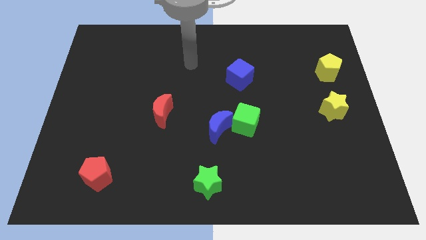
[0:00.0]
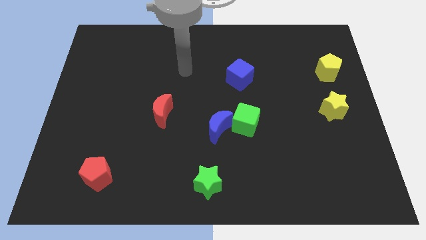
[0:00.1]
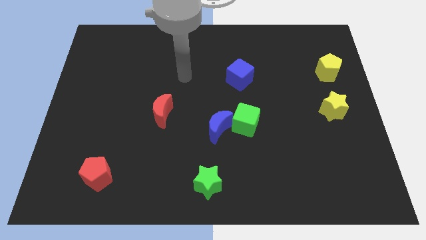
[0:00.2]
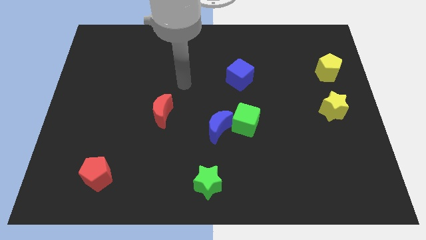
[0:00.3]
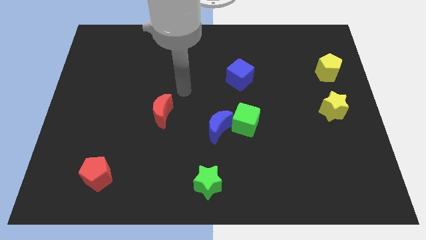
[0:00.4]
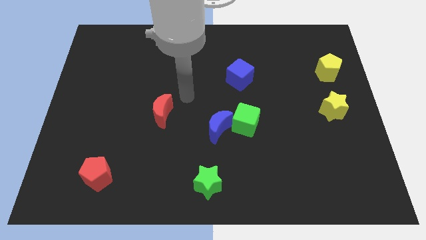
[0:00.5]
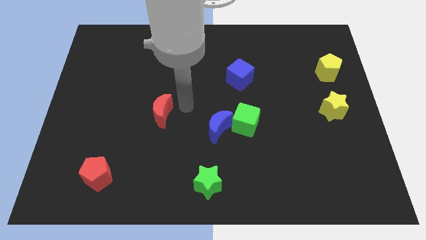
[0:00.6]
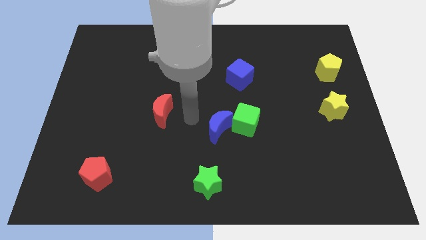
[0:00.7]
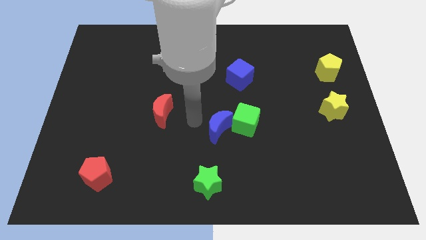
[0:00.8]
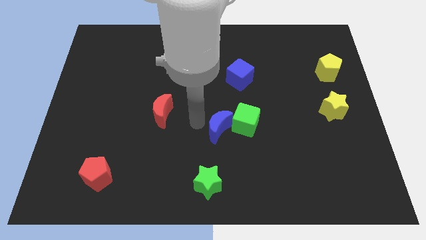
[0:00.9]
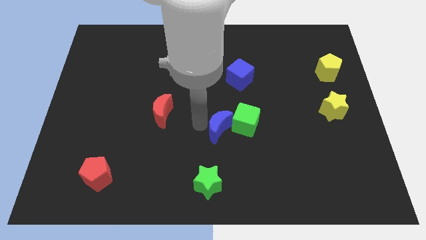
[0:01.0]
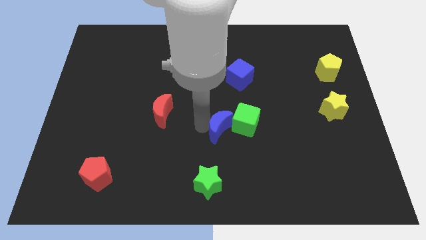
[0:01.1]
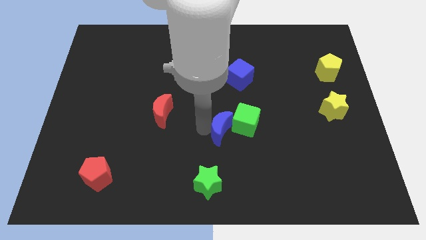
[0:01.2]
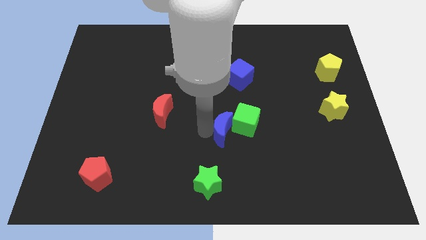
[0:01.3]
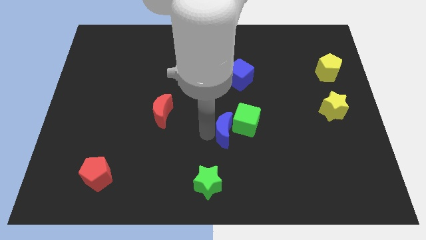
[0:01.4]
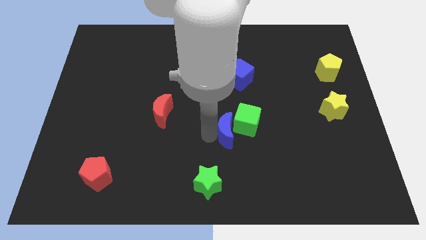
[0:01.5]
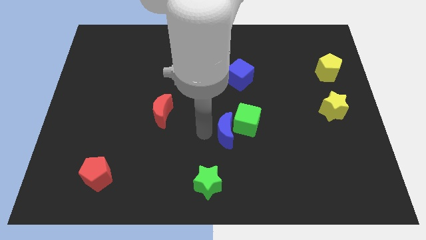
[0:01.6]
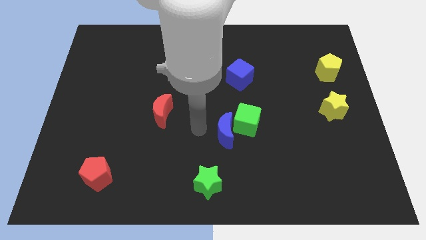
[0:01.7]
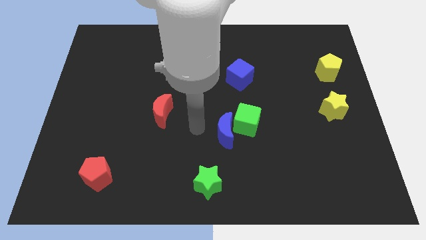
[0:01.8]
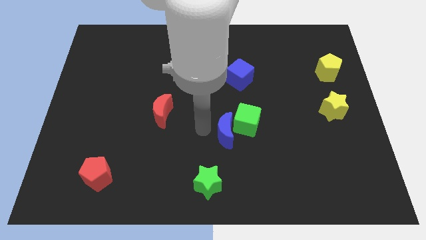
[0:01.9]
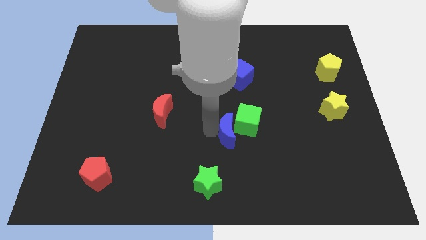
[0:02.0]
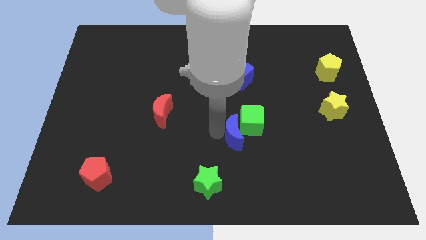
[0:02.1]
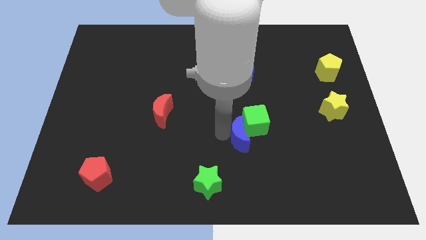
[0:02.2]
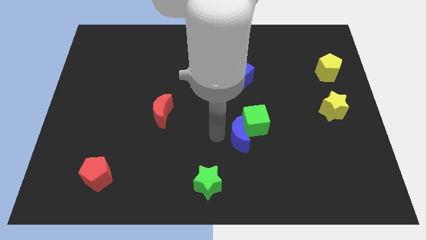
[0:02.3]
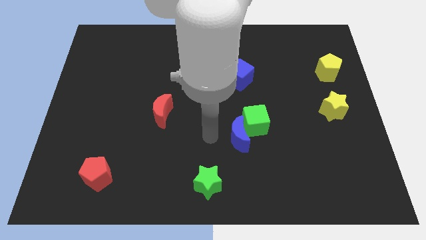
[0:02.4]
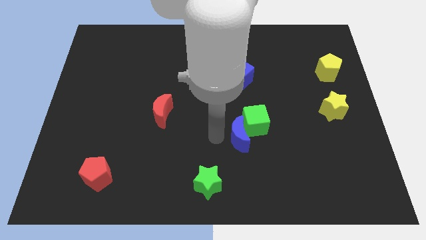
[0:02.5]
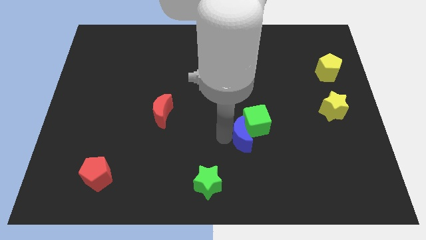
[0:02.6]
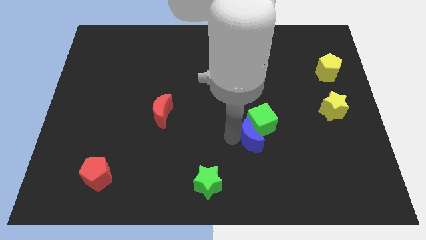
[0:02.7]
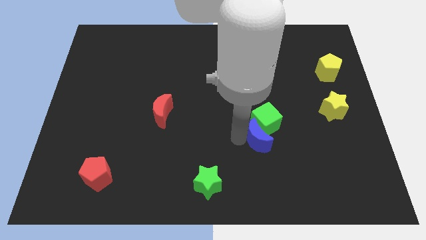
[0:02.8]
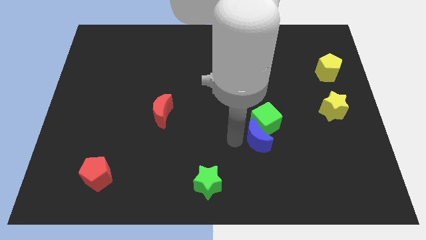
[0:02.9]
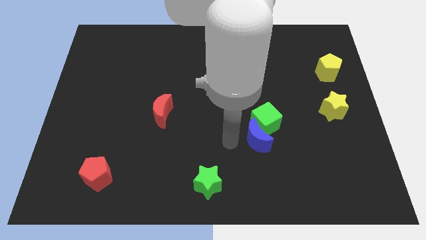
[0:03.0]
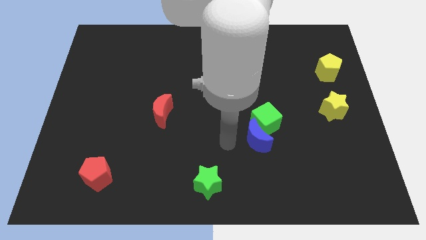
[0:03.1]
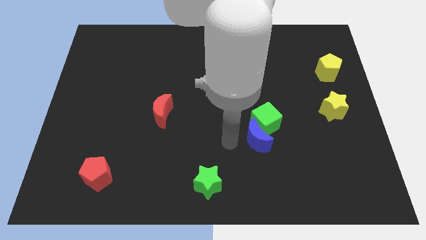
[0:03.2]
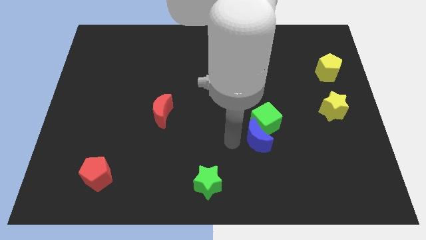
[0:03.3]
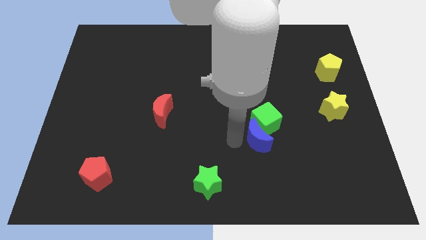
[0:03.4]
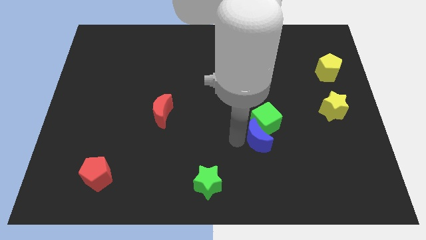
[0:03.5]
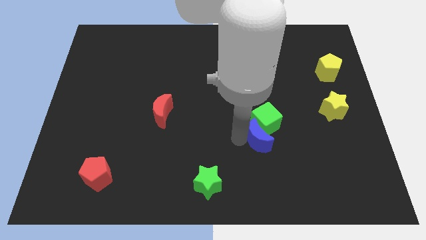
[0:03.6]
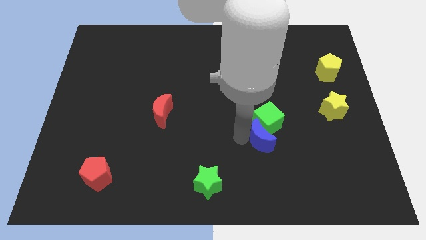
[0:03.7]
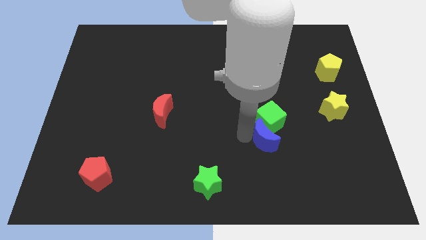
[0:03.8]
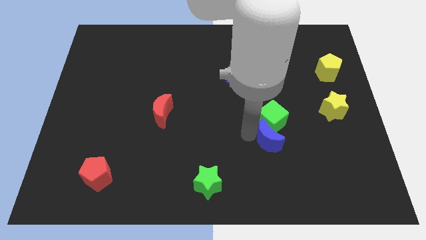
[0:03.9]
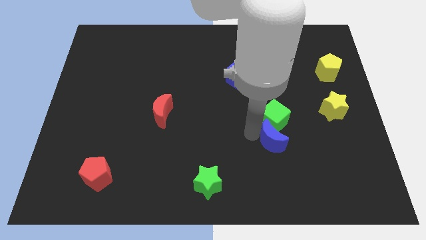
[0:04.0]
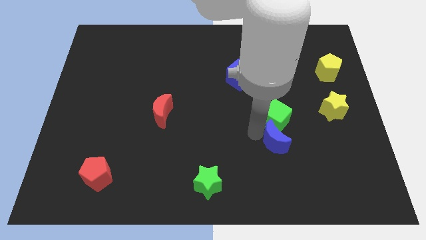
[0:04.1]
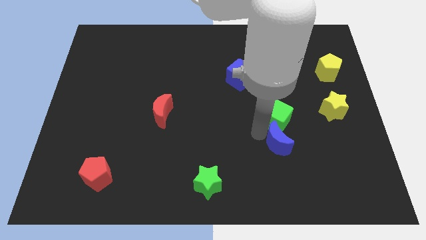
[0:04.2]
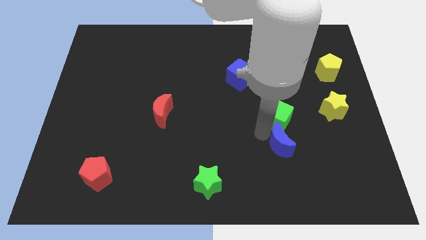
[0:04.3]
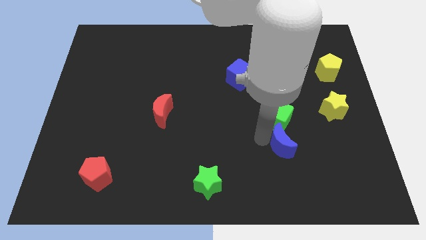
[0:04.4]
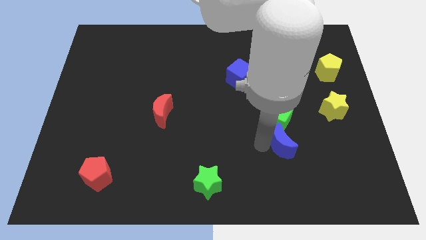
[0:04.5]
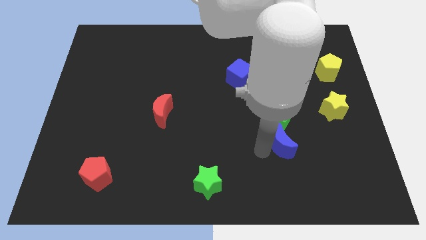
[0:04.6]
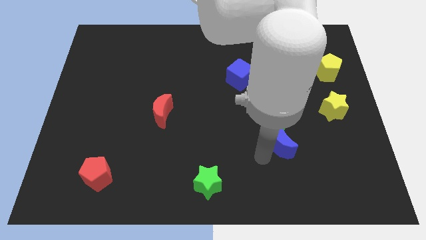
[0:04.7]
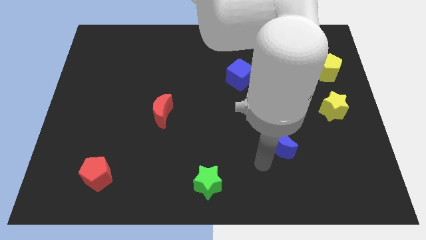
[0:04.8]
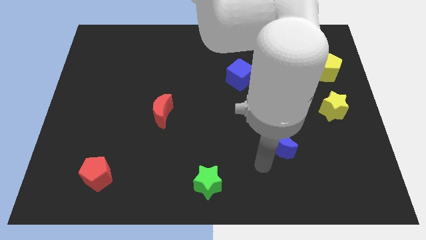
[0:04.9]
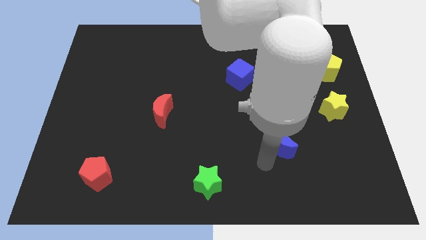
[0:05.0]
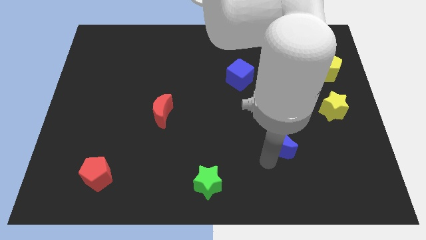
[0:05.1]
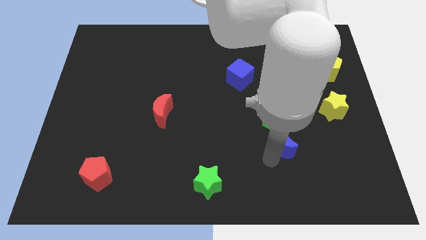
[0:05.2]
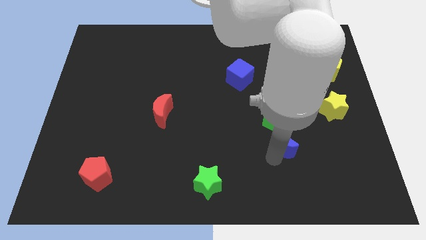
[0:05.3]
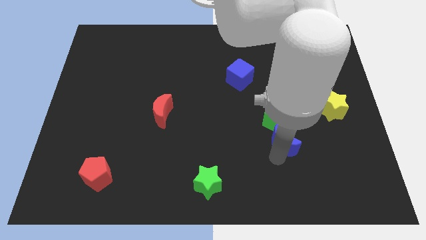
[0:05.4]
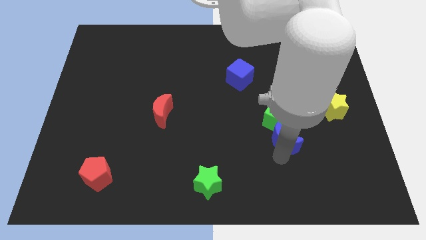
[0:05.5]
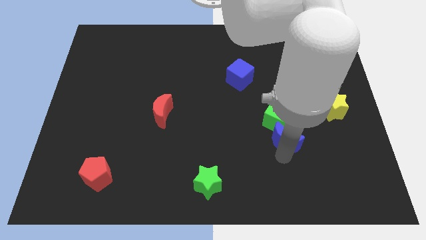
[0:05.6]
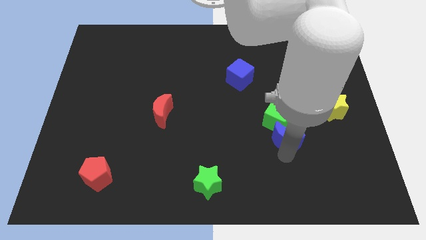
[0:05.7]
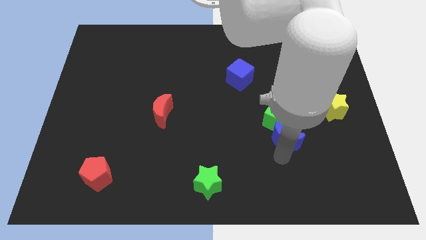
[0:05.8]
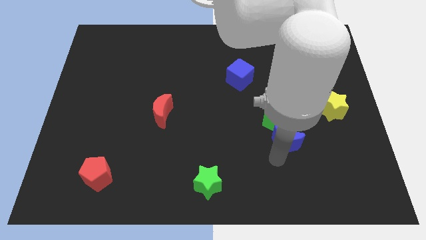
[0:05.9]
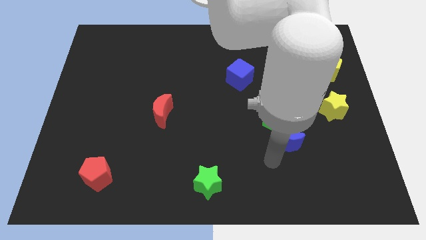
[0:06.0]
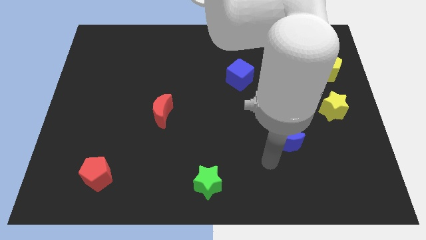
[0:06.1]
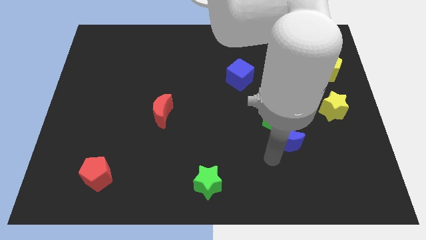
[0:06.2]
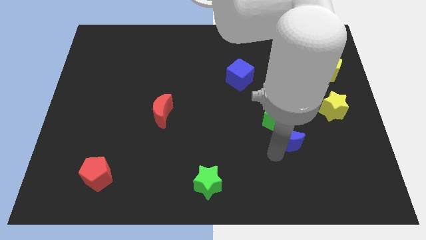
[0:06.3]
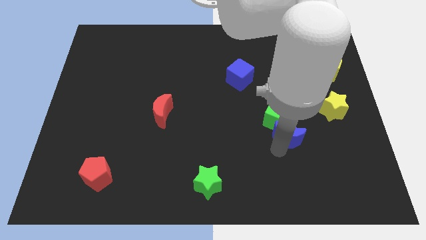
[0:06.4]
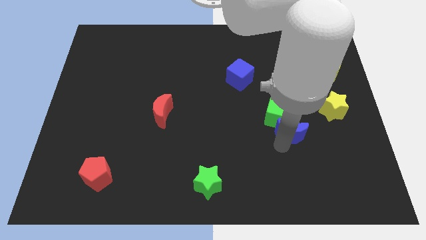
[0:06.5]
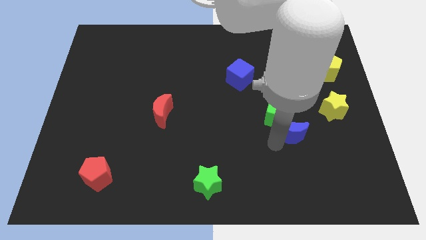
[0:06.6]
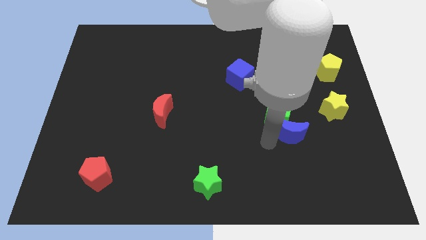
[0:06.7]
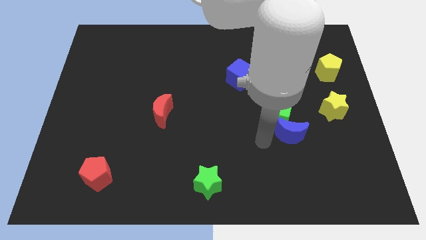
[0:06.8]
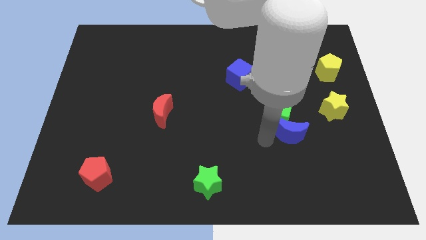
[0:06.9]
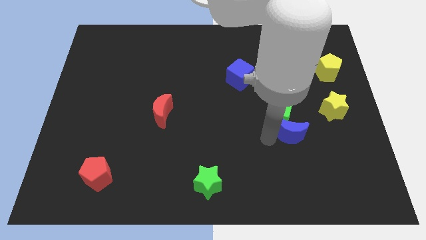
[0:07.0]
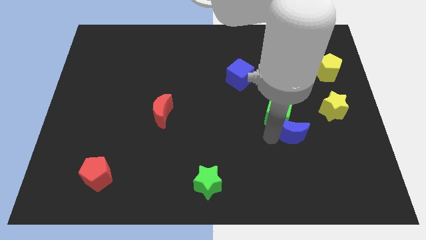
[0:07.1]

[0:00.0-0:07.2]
move the blue moon to the bottom left of the yellow star

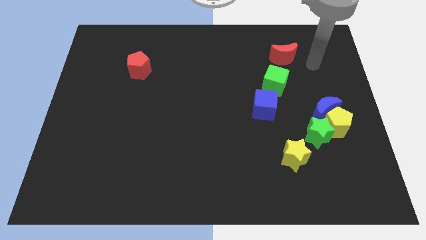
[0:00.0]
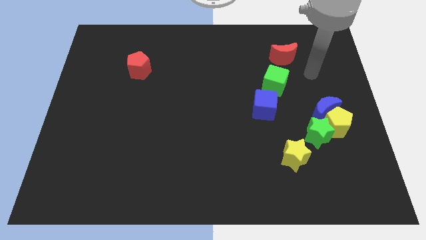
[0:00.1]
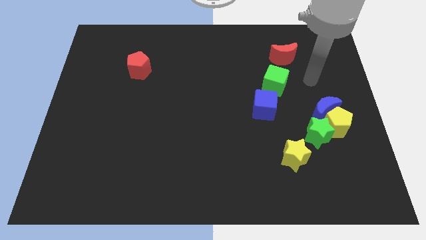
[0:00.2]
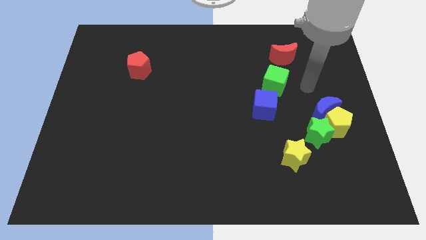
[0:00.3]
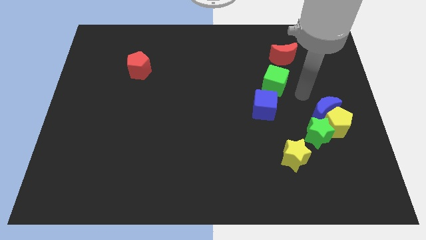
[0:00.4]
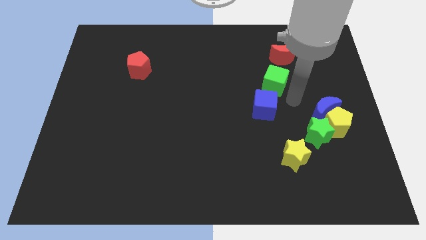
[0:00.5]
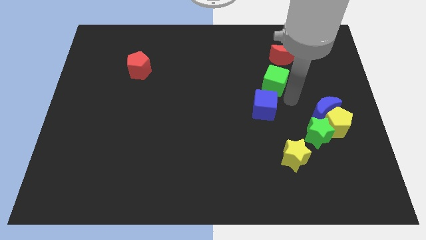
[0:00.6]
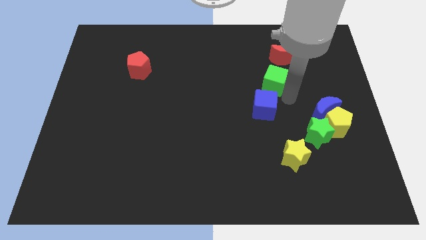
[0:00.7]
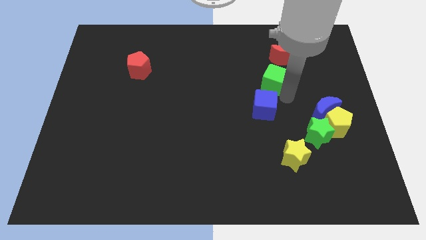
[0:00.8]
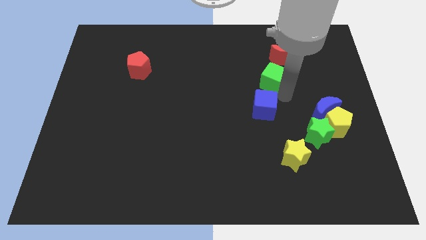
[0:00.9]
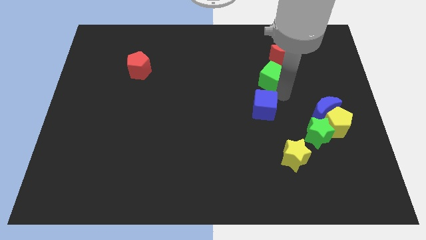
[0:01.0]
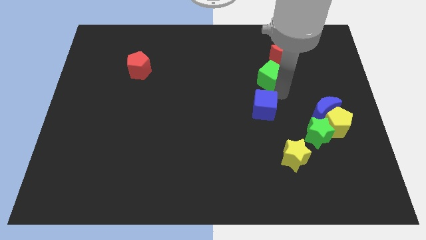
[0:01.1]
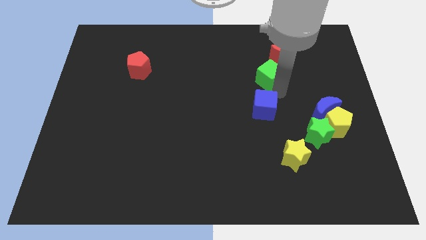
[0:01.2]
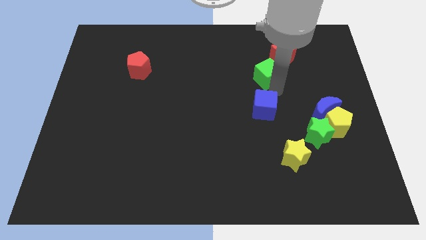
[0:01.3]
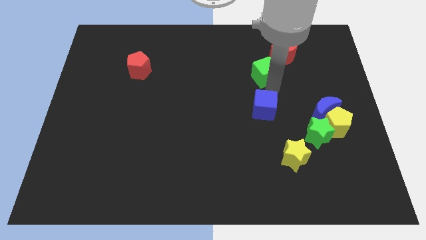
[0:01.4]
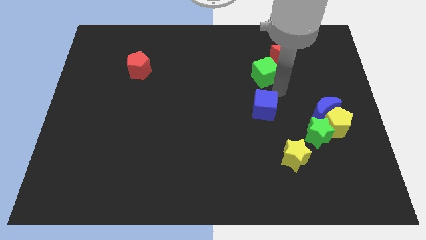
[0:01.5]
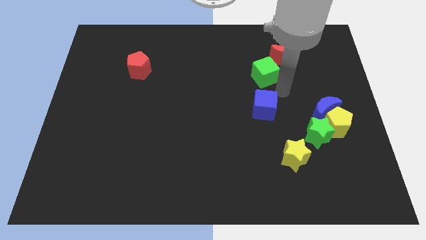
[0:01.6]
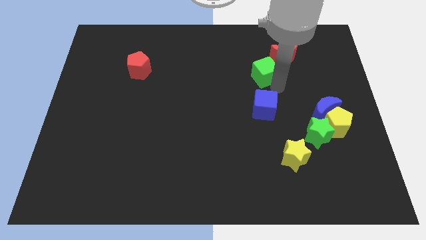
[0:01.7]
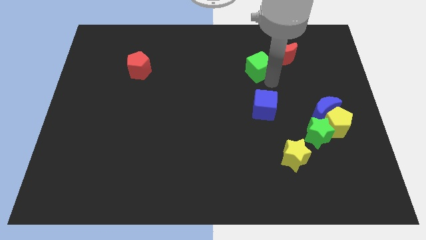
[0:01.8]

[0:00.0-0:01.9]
move the green cube left of the red moon
